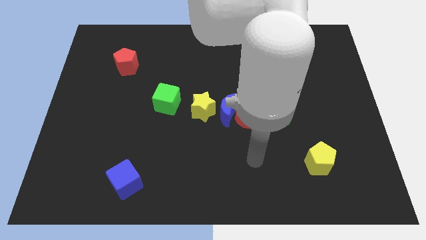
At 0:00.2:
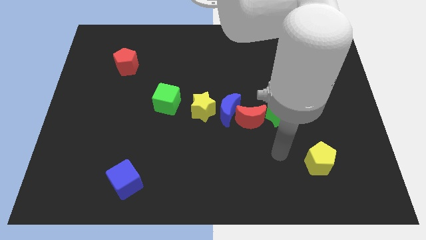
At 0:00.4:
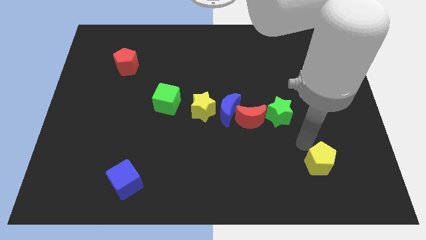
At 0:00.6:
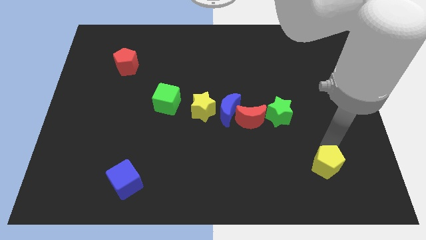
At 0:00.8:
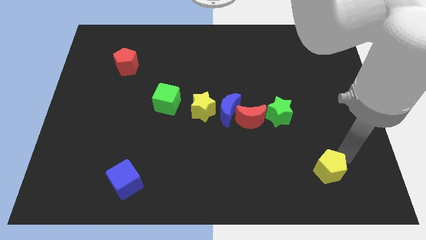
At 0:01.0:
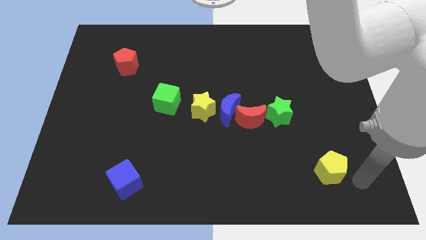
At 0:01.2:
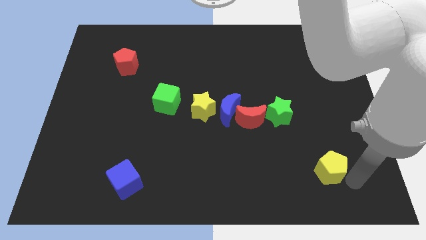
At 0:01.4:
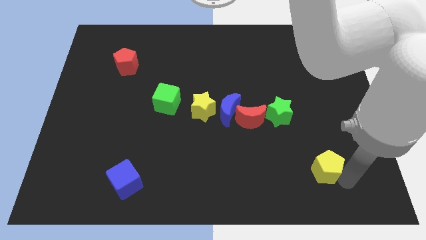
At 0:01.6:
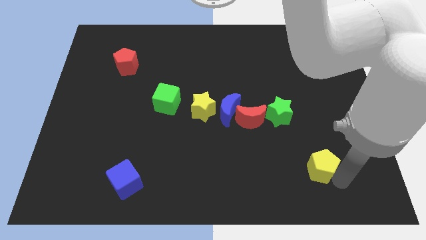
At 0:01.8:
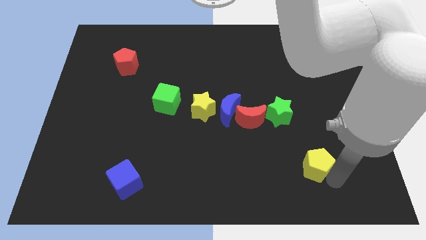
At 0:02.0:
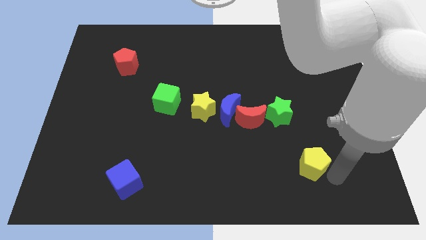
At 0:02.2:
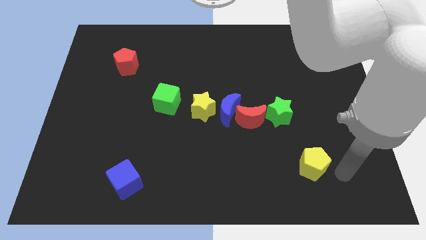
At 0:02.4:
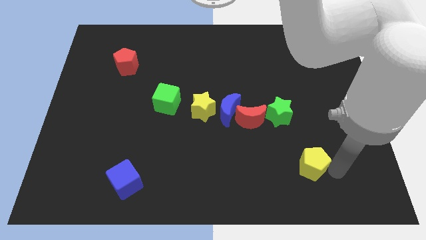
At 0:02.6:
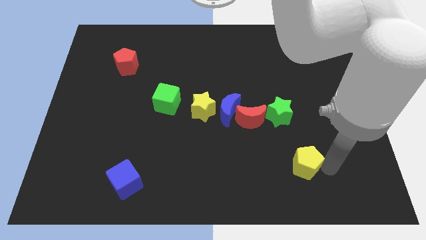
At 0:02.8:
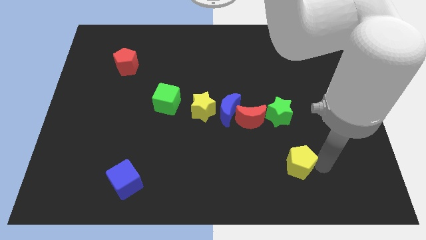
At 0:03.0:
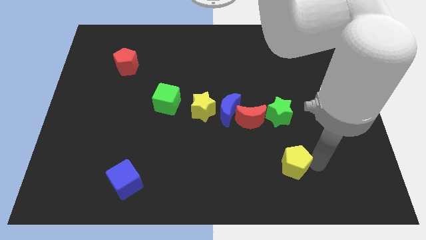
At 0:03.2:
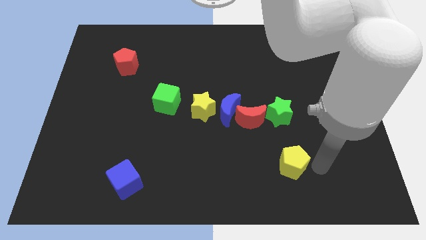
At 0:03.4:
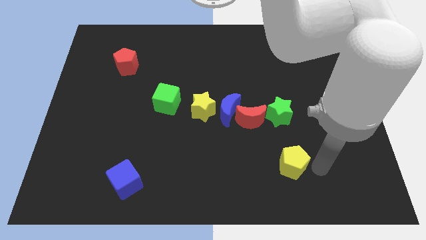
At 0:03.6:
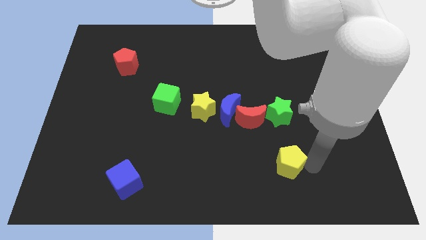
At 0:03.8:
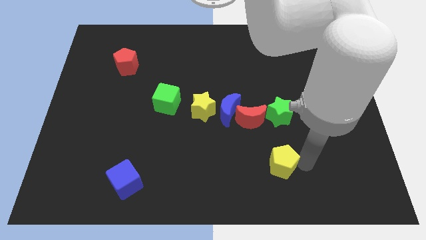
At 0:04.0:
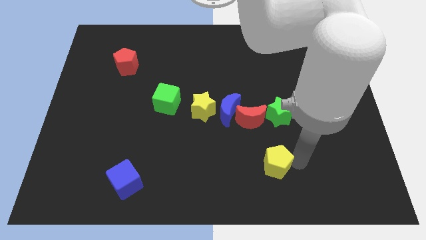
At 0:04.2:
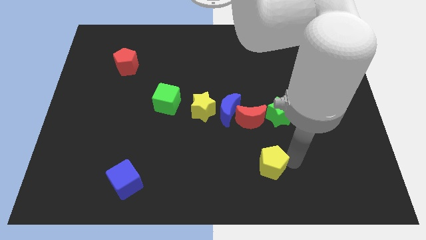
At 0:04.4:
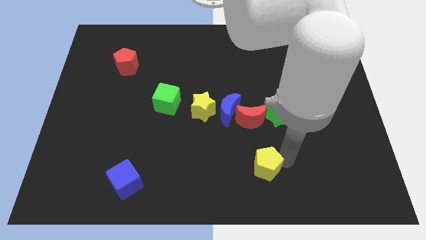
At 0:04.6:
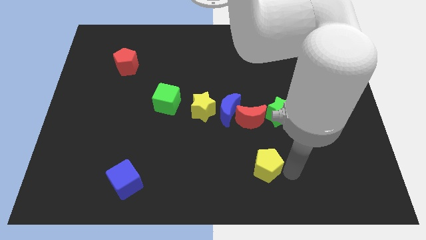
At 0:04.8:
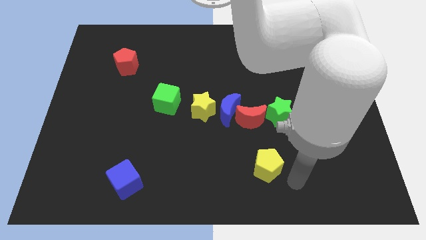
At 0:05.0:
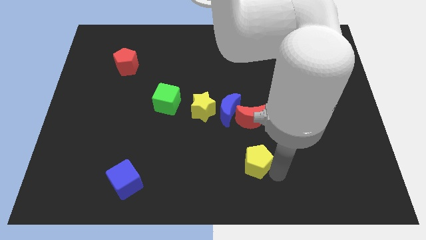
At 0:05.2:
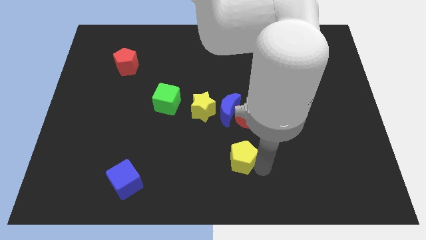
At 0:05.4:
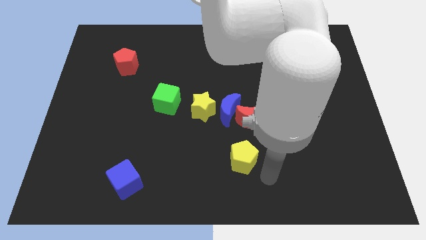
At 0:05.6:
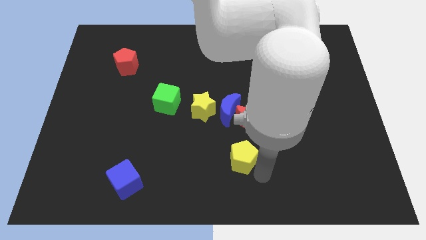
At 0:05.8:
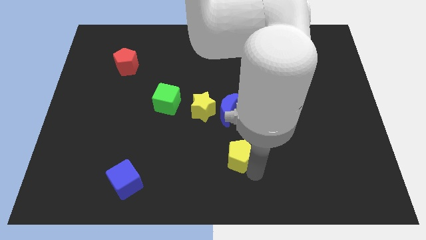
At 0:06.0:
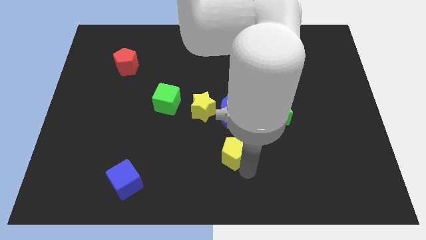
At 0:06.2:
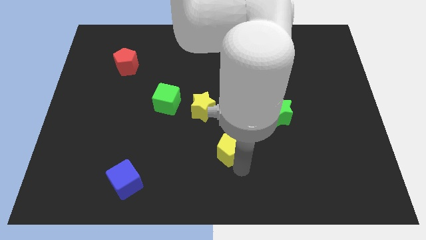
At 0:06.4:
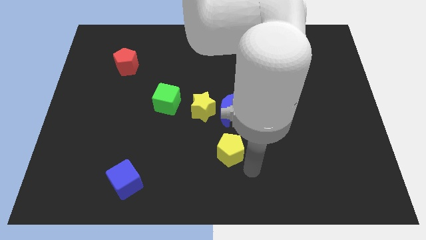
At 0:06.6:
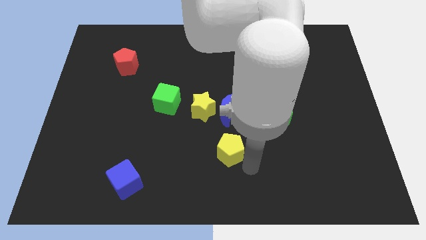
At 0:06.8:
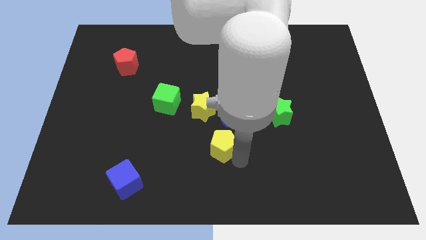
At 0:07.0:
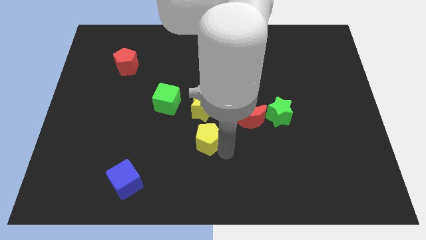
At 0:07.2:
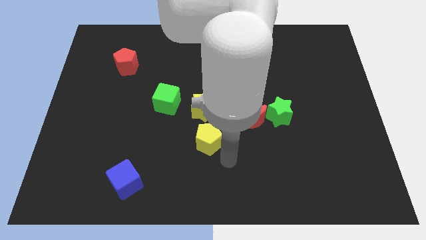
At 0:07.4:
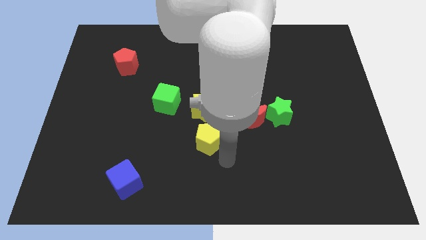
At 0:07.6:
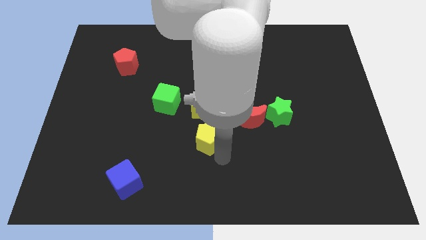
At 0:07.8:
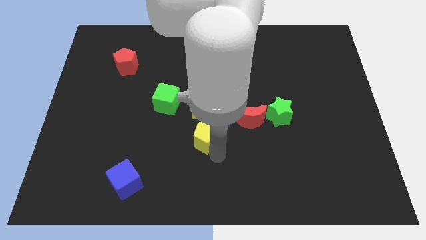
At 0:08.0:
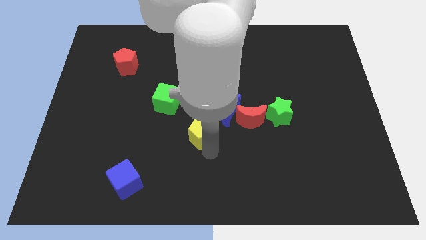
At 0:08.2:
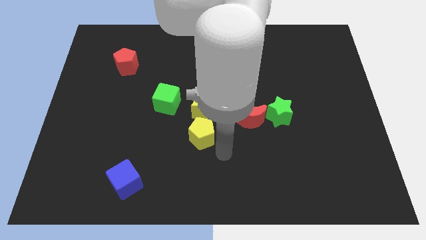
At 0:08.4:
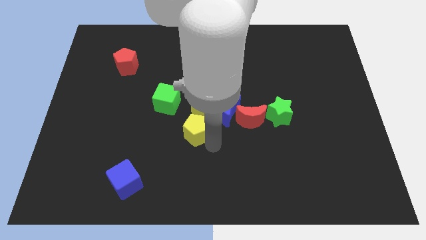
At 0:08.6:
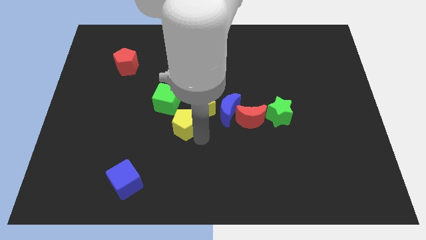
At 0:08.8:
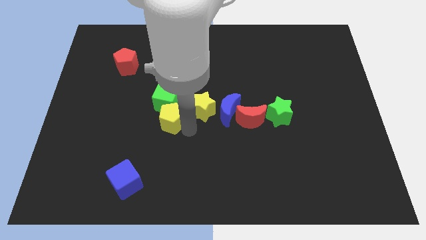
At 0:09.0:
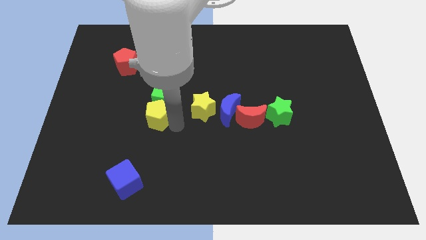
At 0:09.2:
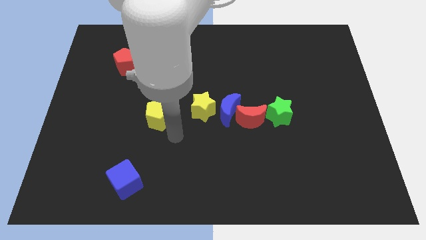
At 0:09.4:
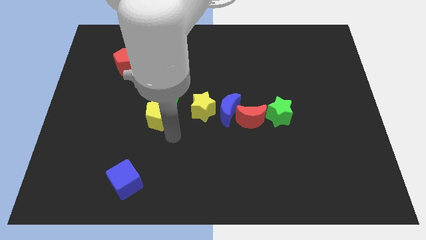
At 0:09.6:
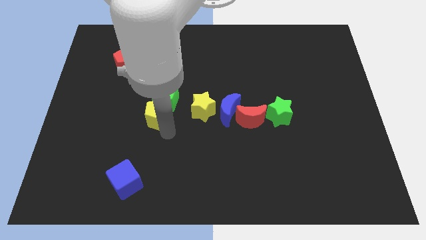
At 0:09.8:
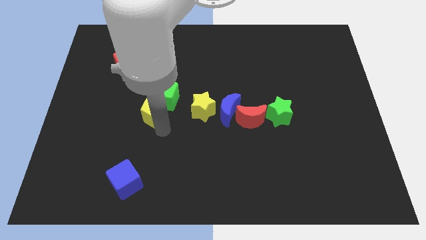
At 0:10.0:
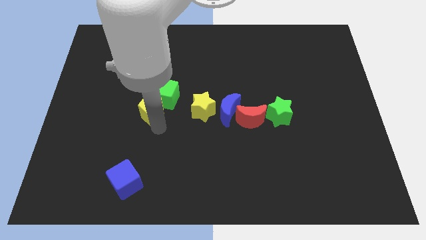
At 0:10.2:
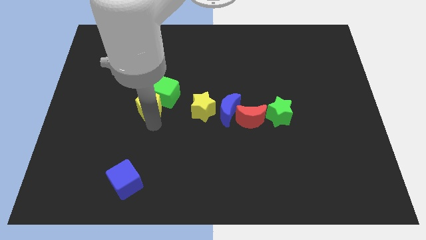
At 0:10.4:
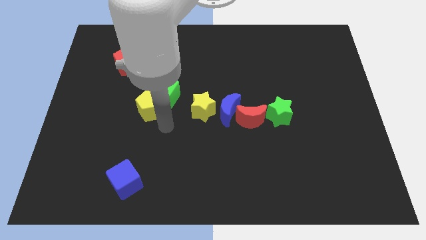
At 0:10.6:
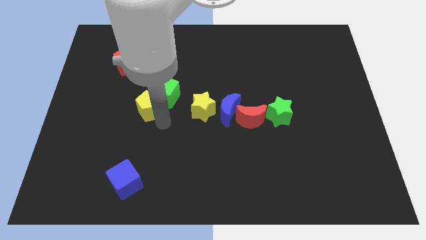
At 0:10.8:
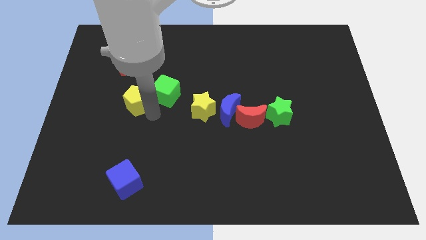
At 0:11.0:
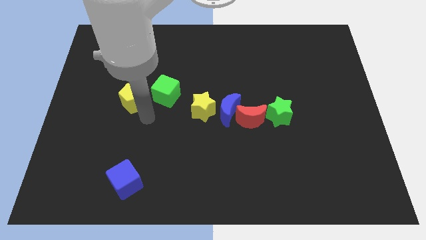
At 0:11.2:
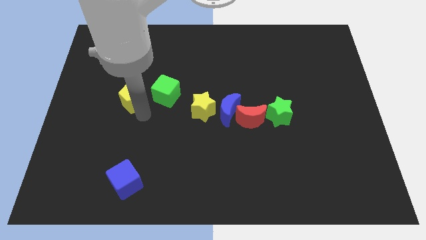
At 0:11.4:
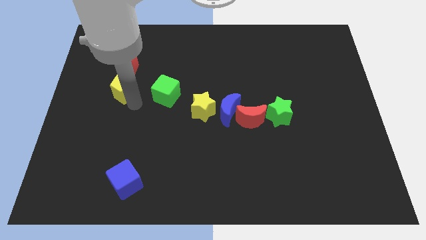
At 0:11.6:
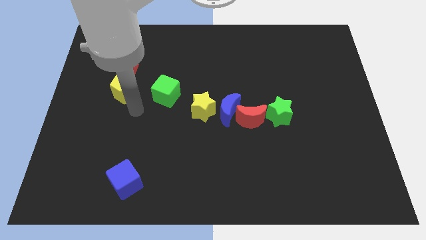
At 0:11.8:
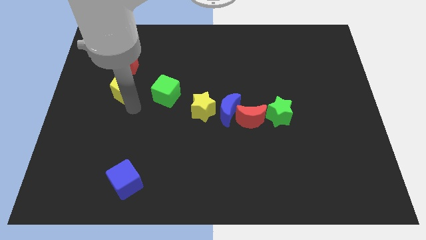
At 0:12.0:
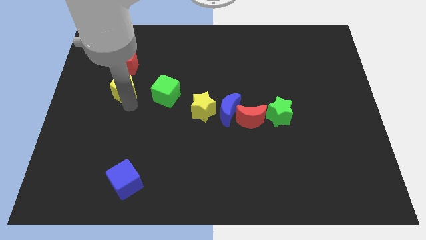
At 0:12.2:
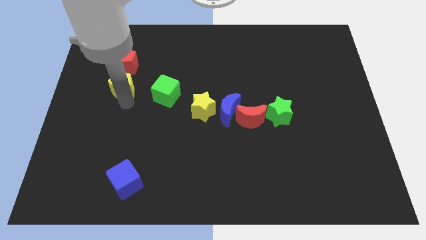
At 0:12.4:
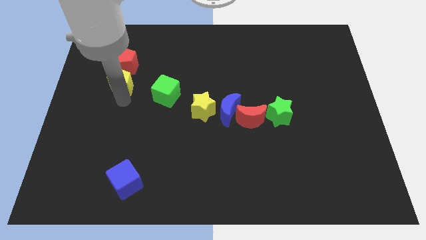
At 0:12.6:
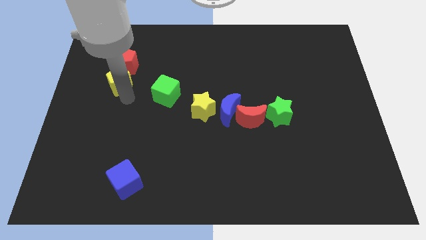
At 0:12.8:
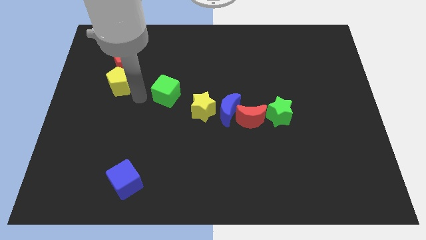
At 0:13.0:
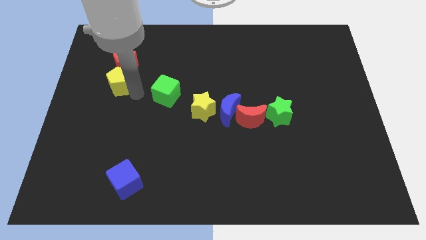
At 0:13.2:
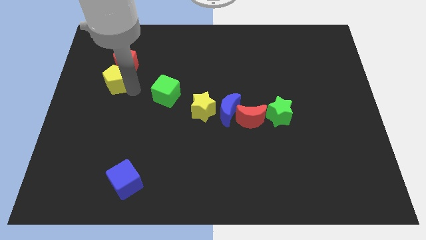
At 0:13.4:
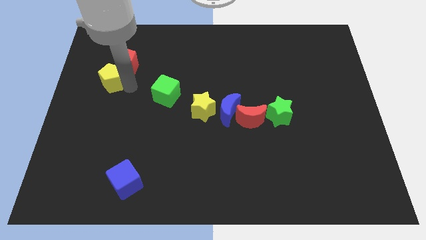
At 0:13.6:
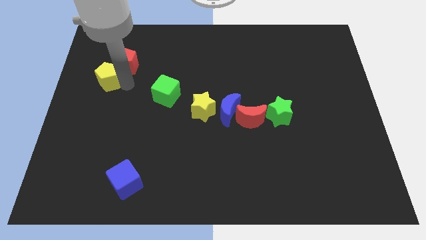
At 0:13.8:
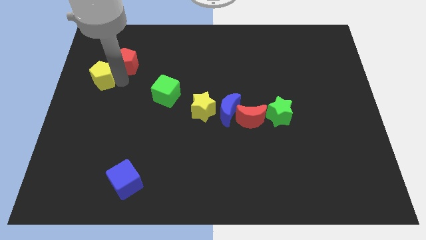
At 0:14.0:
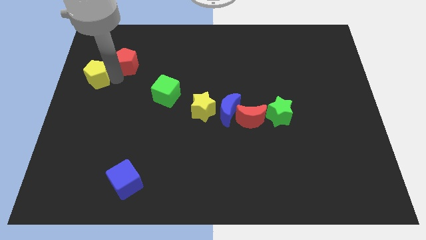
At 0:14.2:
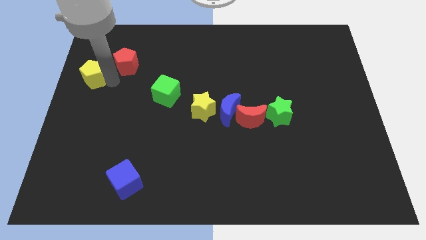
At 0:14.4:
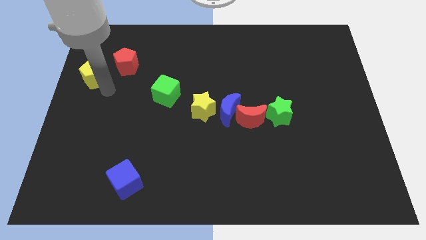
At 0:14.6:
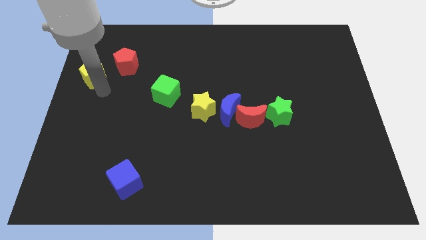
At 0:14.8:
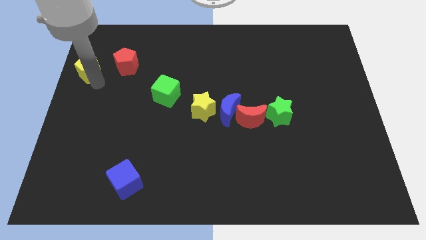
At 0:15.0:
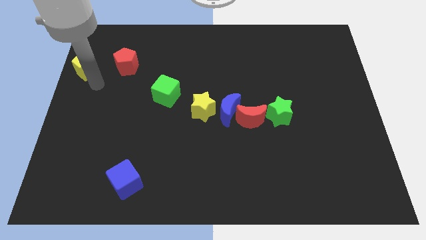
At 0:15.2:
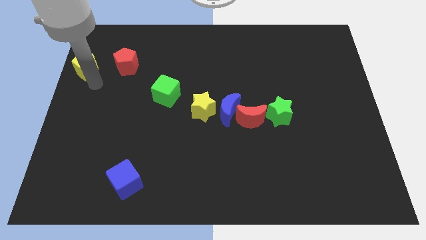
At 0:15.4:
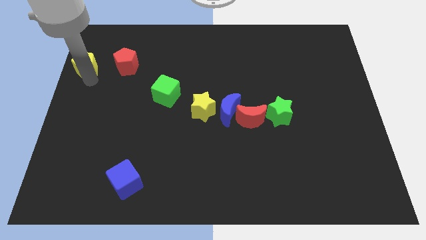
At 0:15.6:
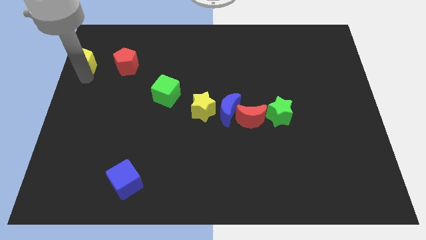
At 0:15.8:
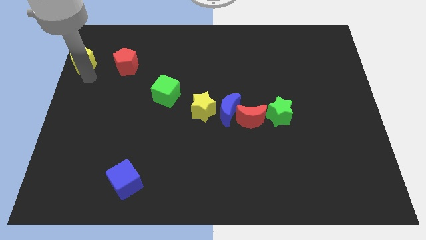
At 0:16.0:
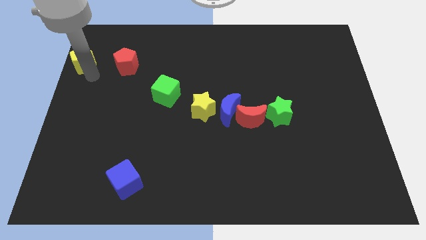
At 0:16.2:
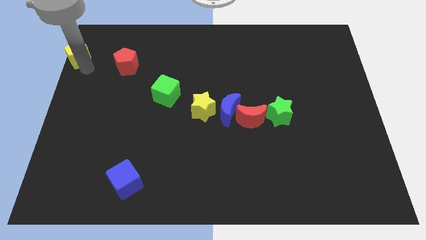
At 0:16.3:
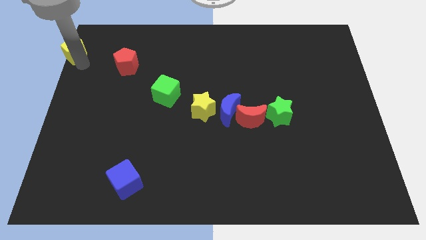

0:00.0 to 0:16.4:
move the yellow pentagon to the top left of the board
